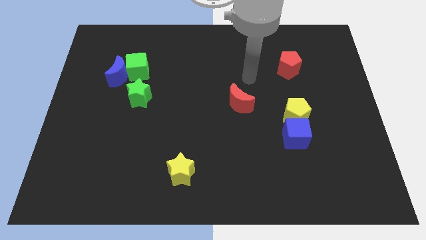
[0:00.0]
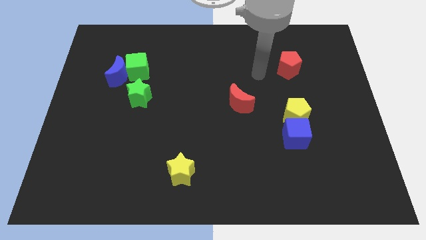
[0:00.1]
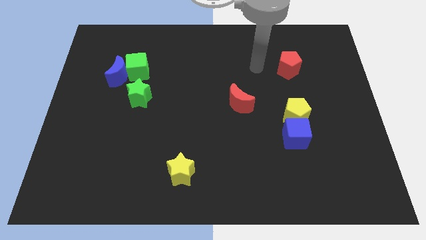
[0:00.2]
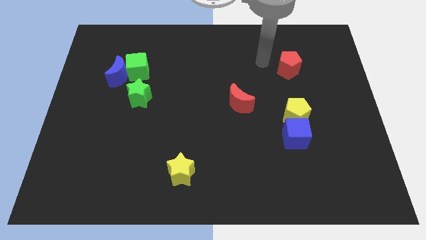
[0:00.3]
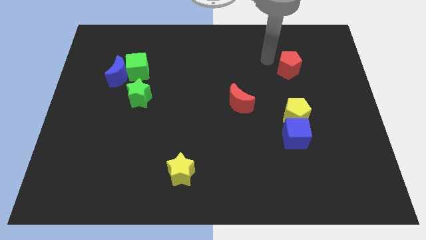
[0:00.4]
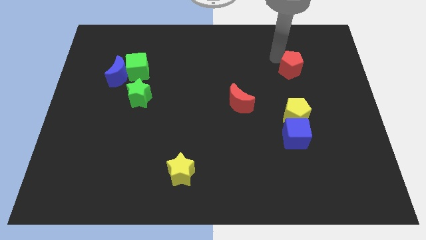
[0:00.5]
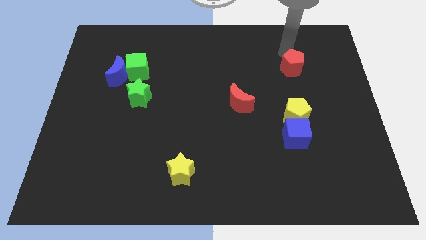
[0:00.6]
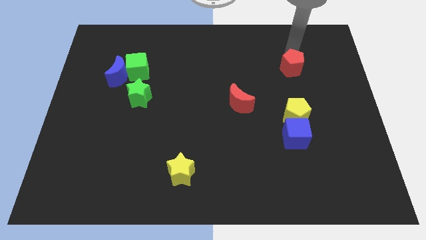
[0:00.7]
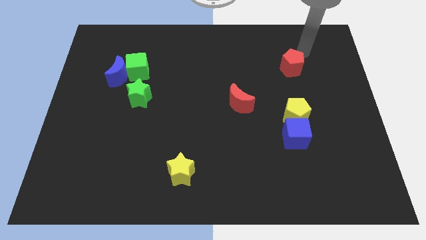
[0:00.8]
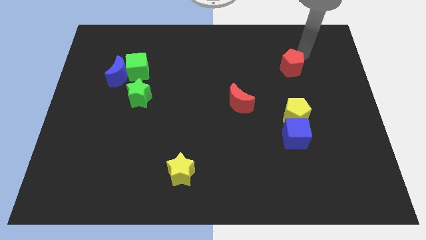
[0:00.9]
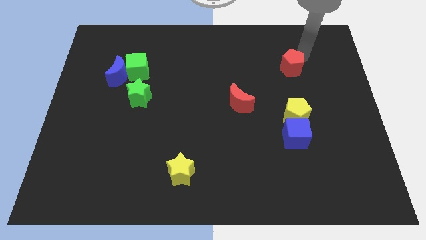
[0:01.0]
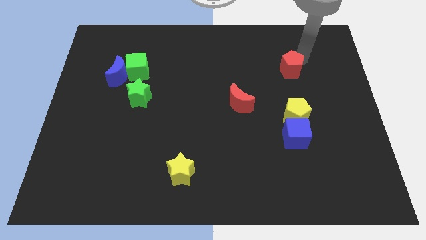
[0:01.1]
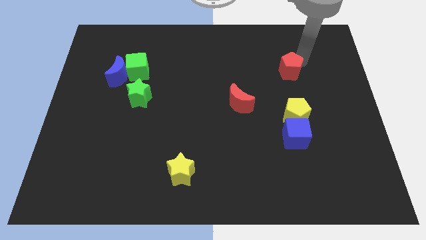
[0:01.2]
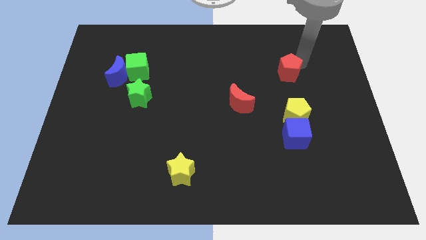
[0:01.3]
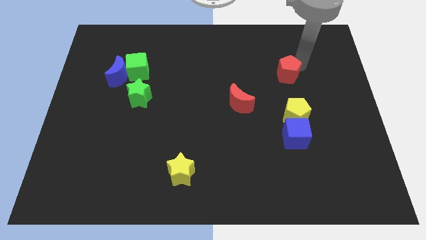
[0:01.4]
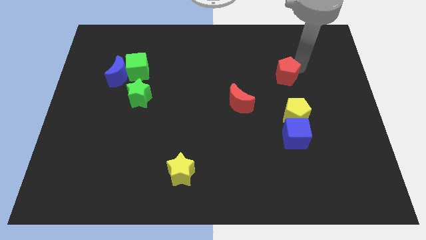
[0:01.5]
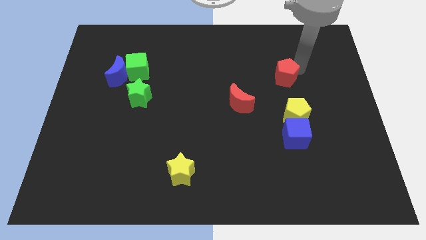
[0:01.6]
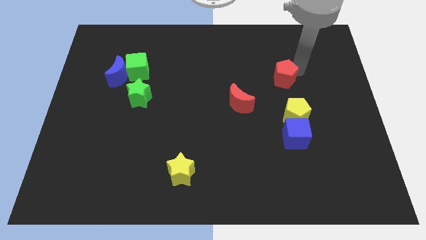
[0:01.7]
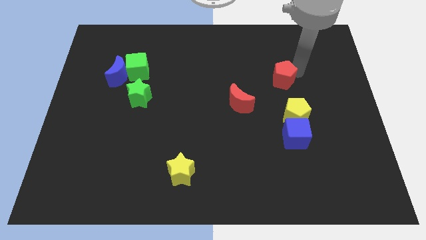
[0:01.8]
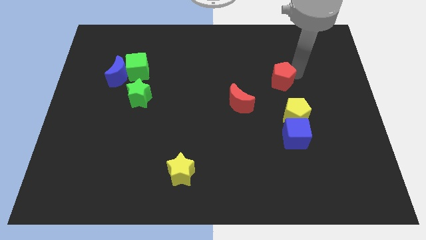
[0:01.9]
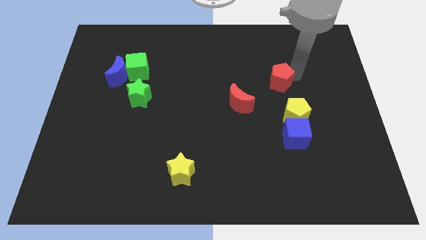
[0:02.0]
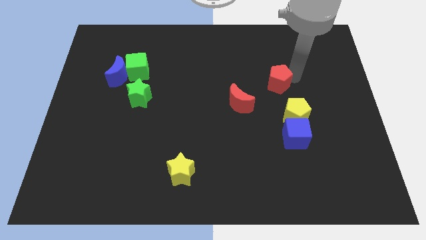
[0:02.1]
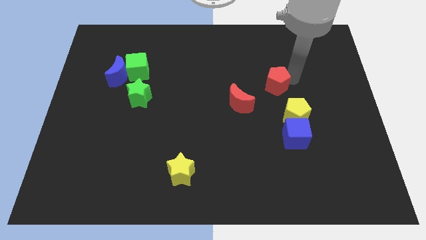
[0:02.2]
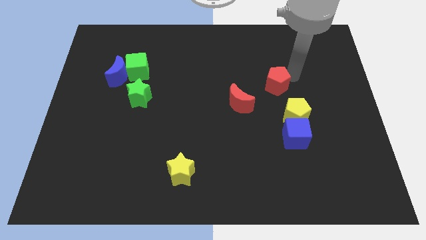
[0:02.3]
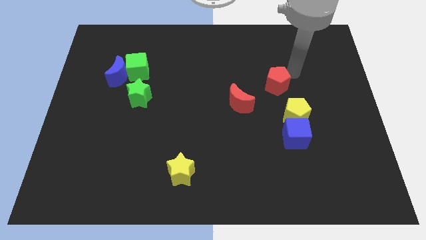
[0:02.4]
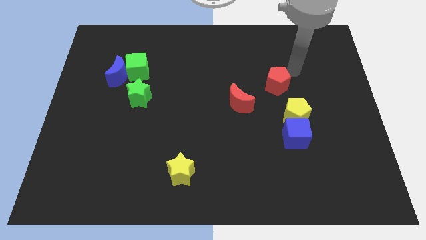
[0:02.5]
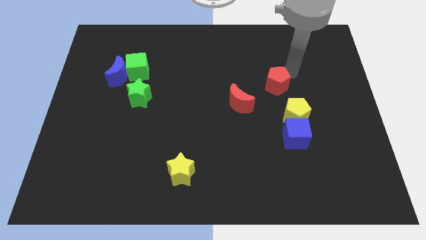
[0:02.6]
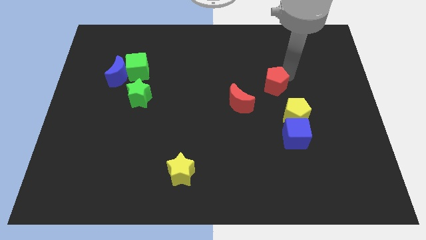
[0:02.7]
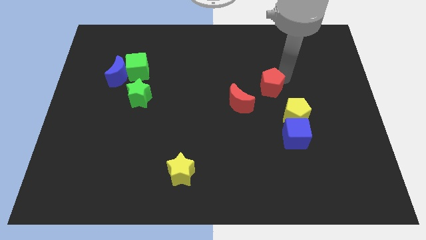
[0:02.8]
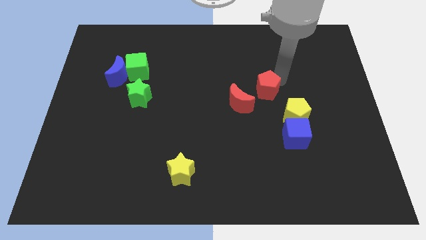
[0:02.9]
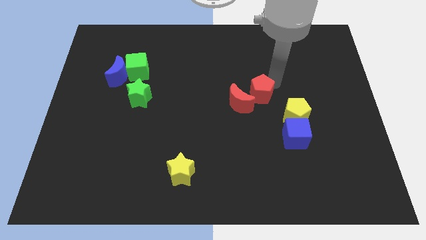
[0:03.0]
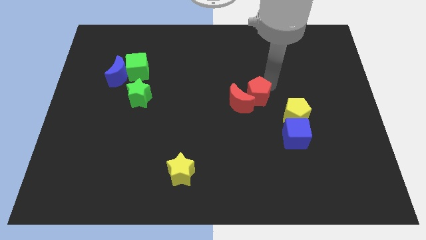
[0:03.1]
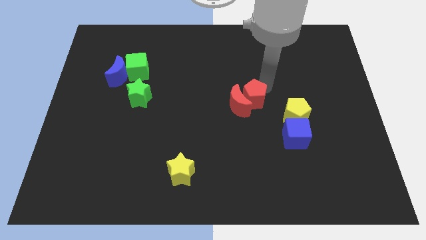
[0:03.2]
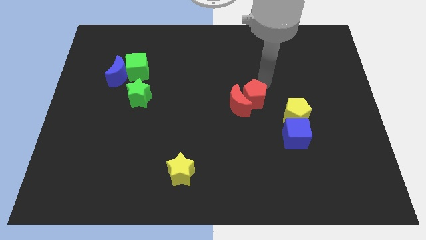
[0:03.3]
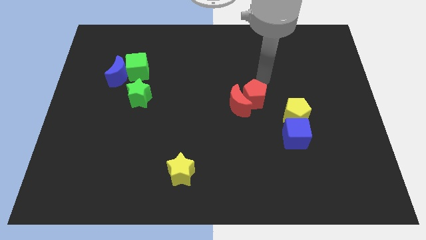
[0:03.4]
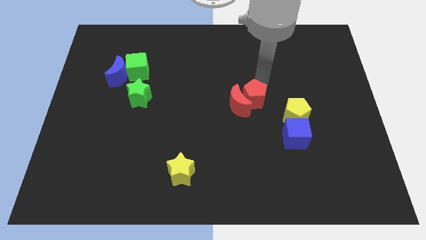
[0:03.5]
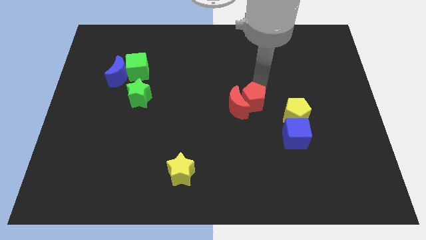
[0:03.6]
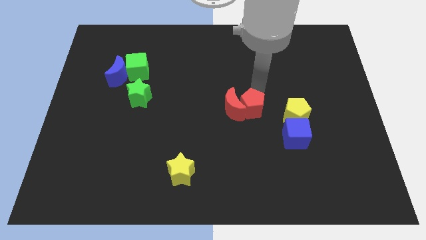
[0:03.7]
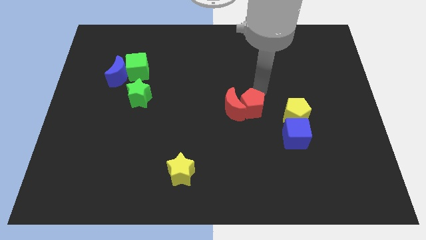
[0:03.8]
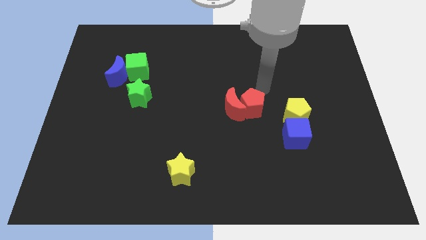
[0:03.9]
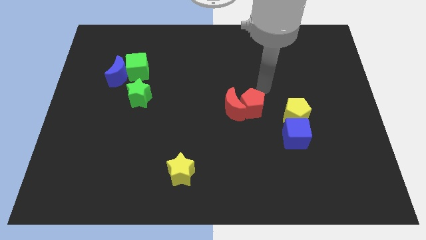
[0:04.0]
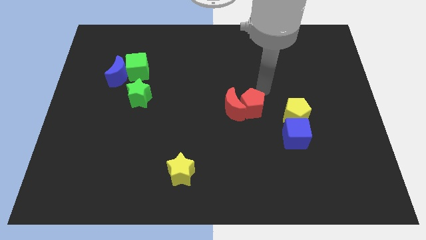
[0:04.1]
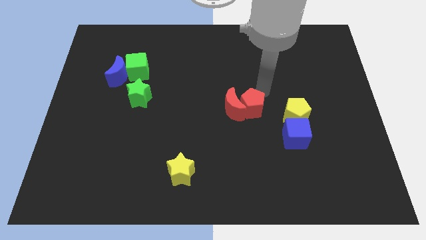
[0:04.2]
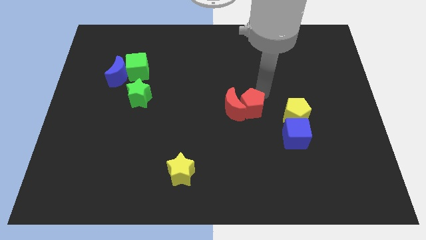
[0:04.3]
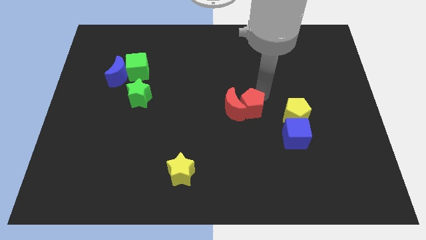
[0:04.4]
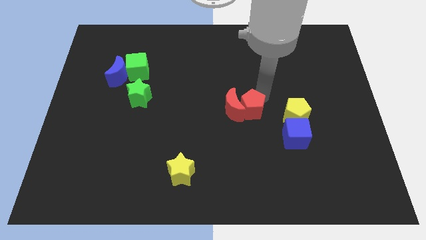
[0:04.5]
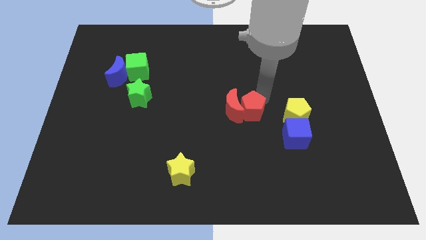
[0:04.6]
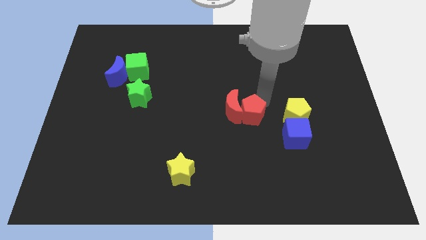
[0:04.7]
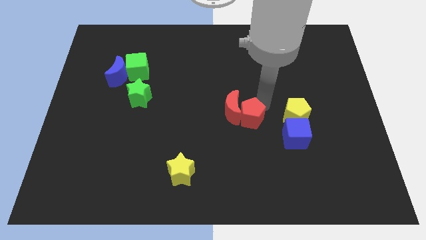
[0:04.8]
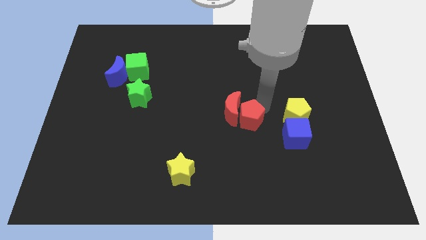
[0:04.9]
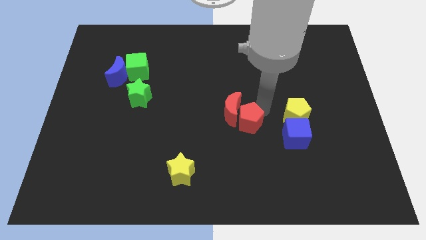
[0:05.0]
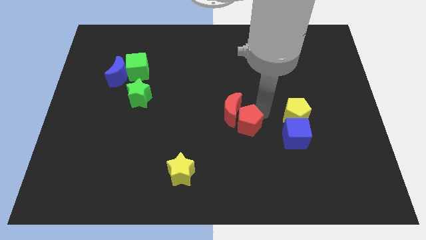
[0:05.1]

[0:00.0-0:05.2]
slide the red pentagon down and then to the left

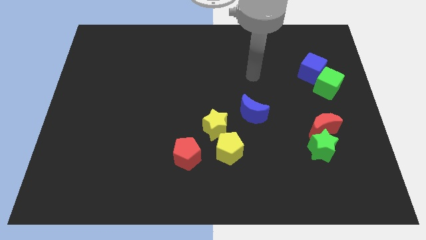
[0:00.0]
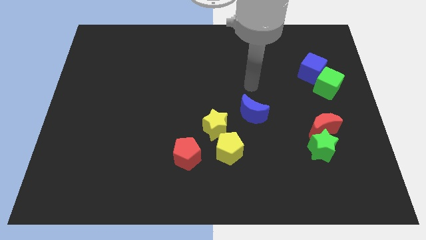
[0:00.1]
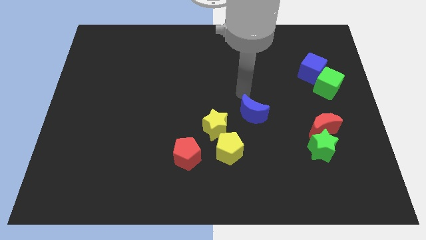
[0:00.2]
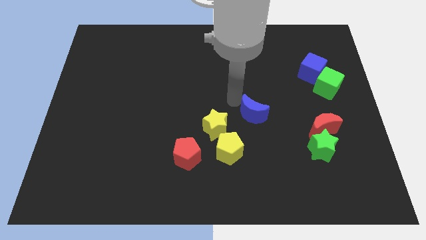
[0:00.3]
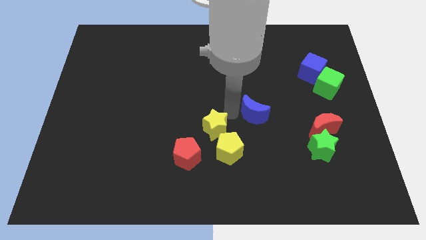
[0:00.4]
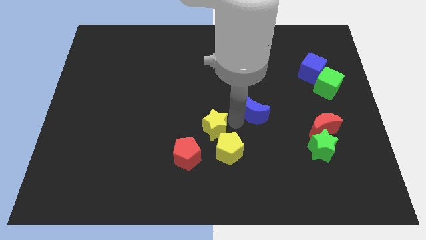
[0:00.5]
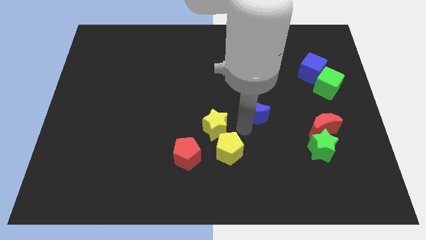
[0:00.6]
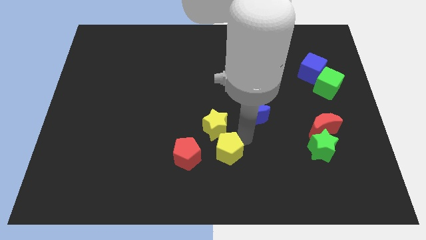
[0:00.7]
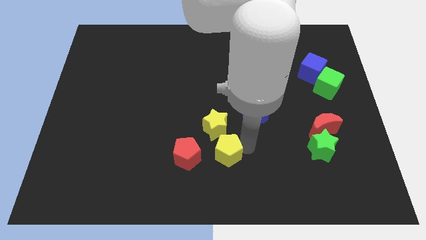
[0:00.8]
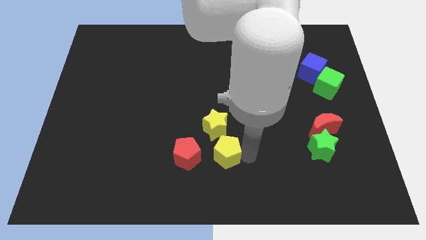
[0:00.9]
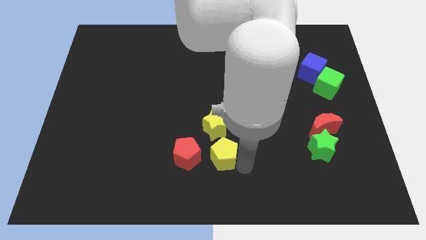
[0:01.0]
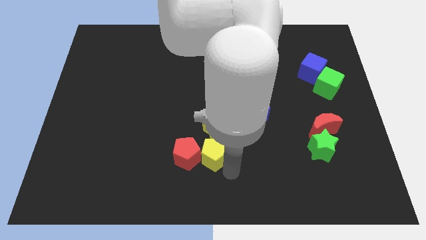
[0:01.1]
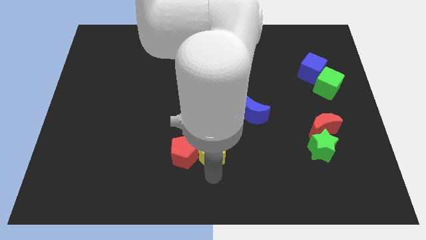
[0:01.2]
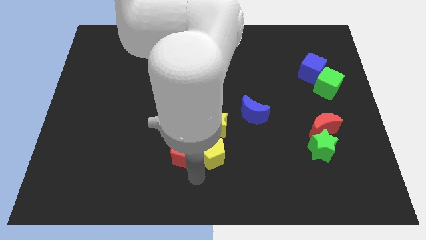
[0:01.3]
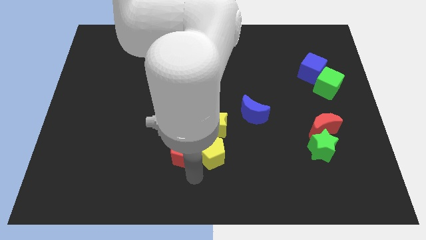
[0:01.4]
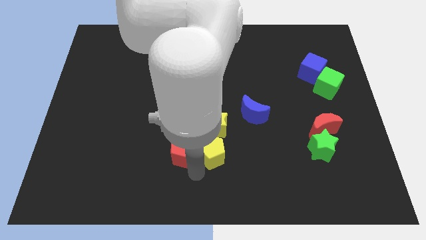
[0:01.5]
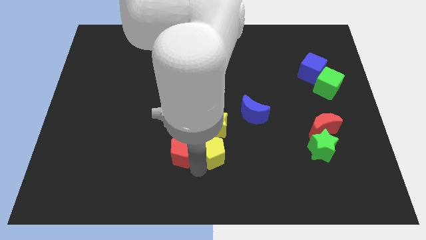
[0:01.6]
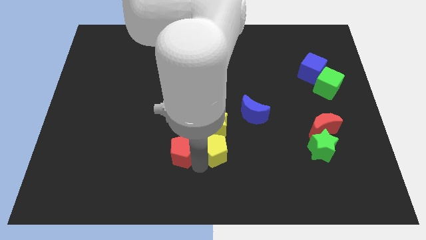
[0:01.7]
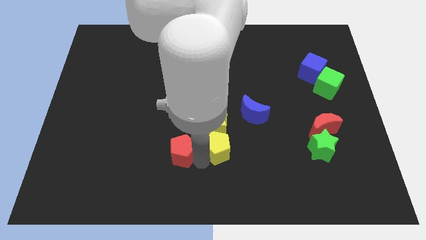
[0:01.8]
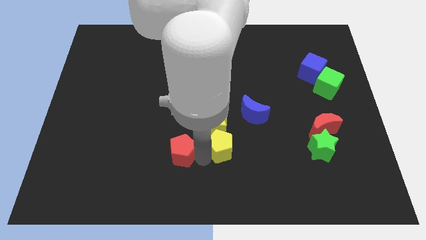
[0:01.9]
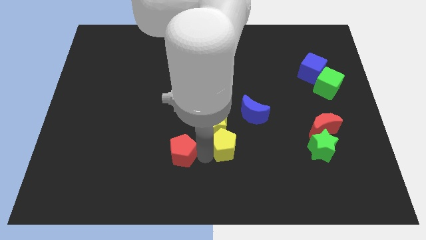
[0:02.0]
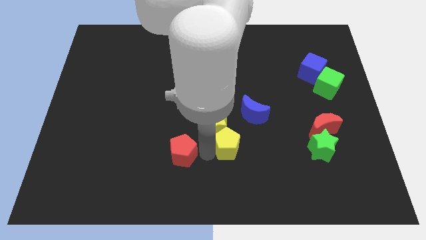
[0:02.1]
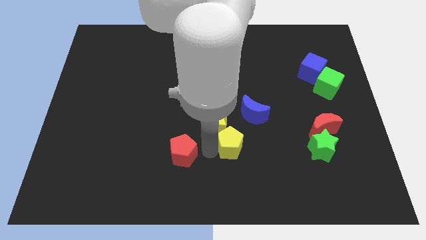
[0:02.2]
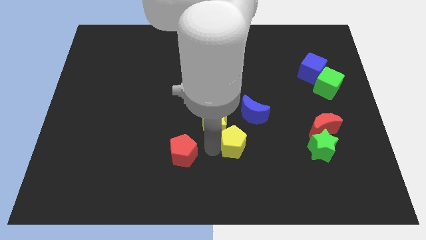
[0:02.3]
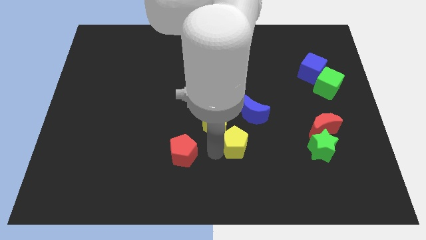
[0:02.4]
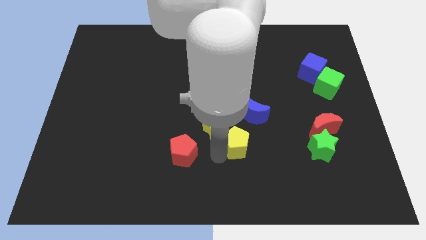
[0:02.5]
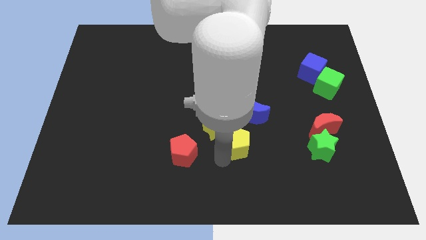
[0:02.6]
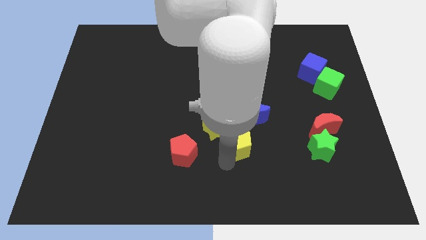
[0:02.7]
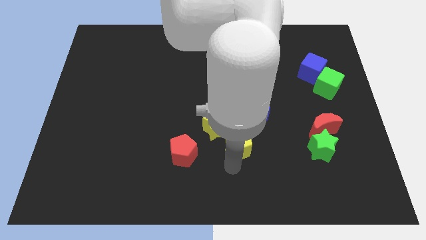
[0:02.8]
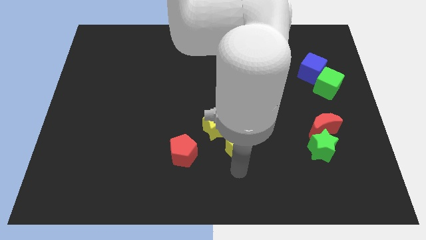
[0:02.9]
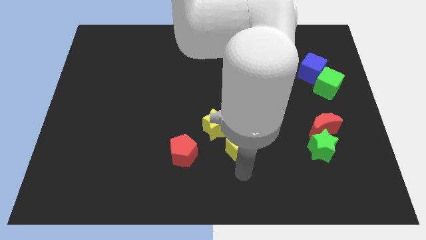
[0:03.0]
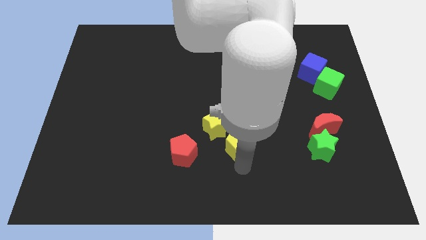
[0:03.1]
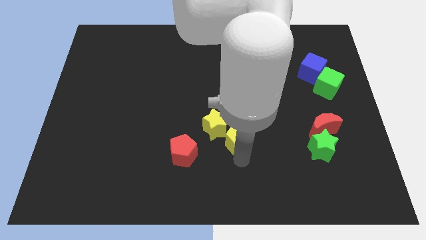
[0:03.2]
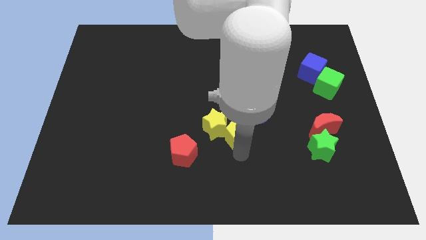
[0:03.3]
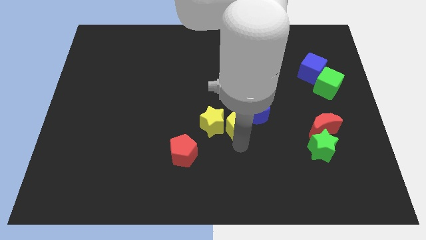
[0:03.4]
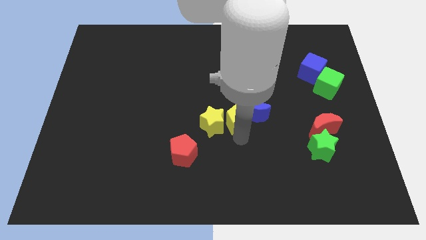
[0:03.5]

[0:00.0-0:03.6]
slide the yellow pentagon up slightly
